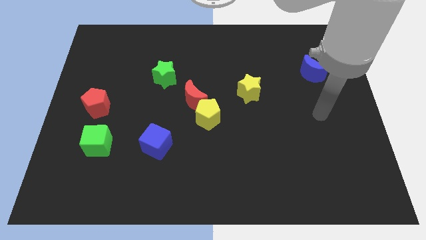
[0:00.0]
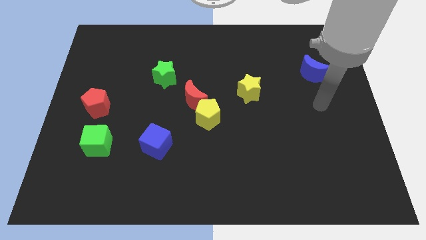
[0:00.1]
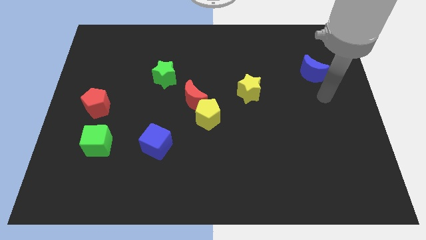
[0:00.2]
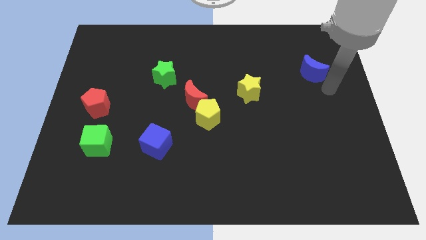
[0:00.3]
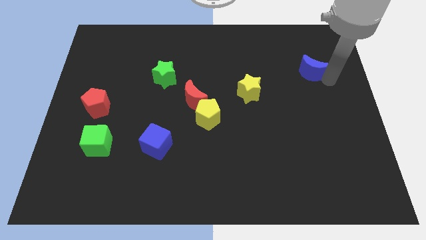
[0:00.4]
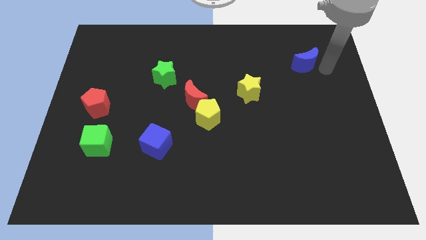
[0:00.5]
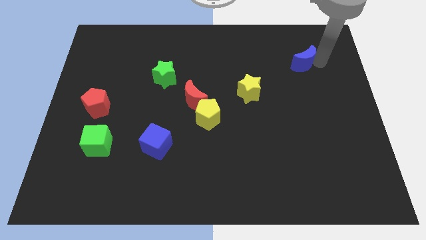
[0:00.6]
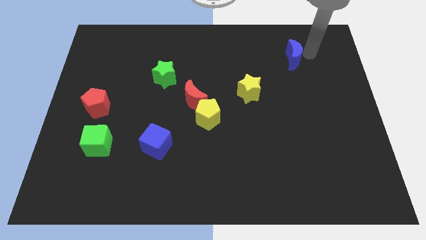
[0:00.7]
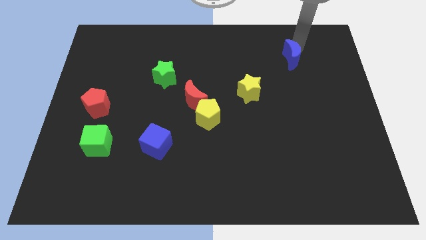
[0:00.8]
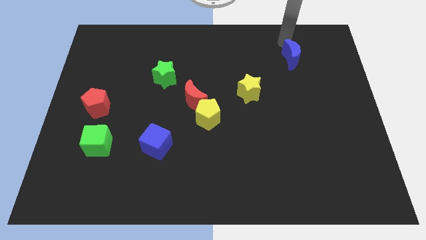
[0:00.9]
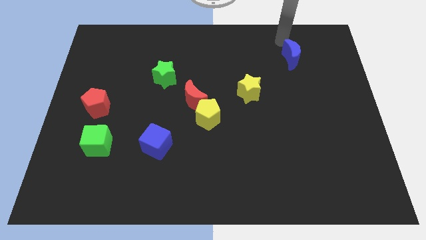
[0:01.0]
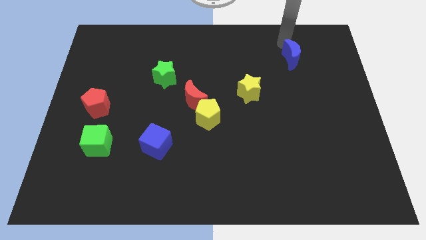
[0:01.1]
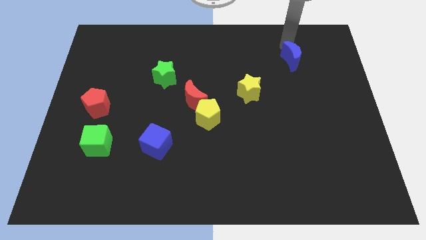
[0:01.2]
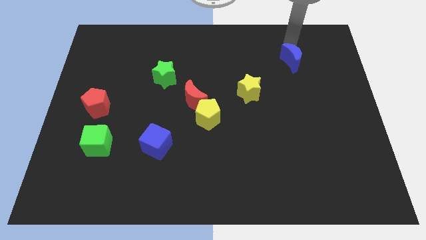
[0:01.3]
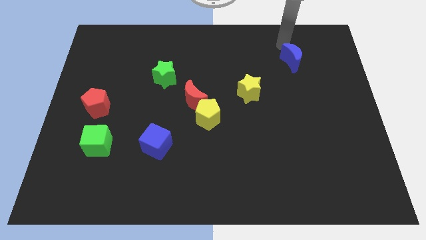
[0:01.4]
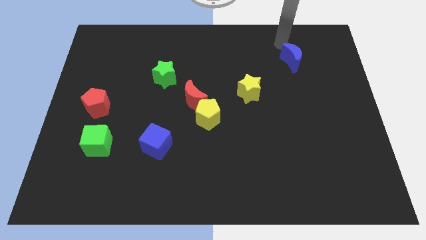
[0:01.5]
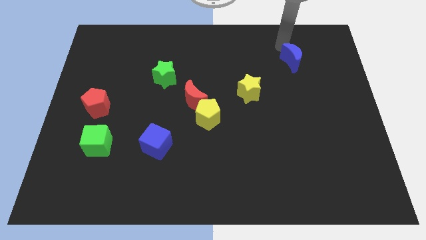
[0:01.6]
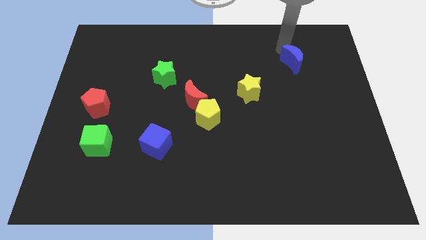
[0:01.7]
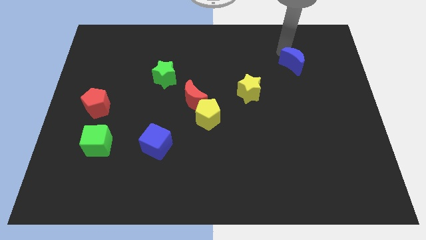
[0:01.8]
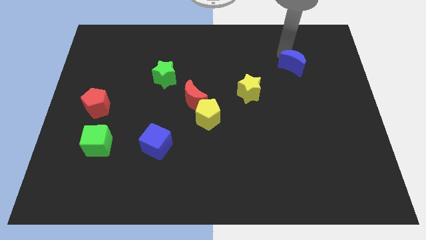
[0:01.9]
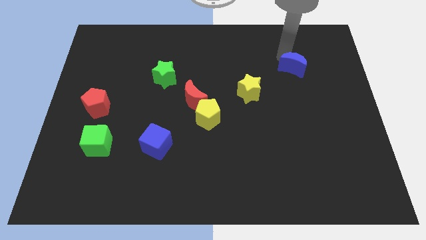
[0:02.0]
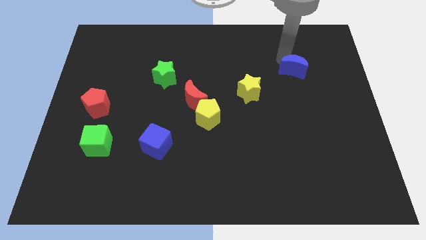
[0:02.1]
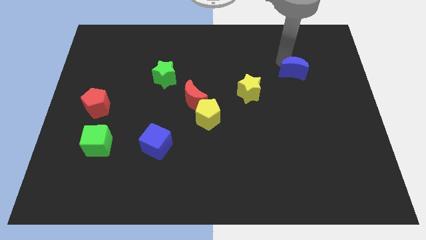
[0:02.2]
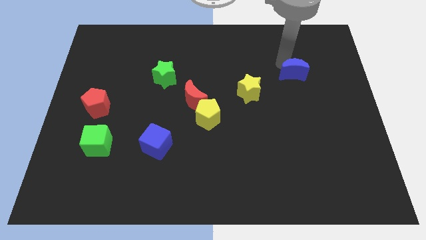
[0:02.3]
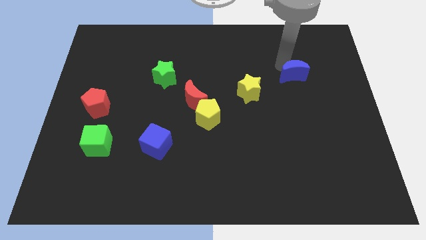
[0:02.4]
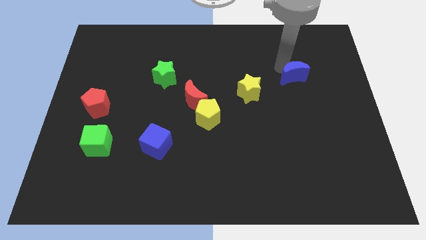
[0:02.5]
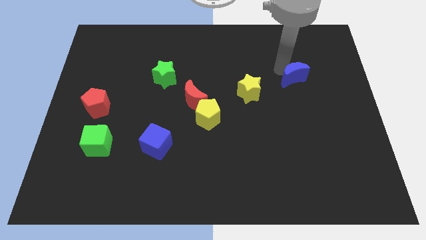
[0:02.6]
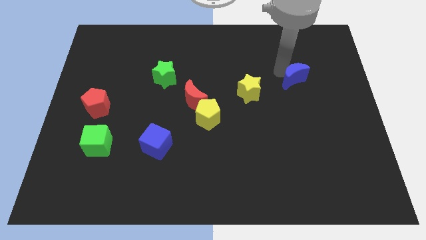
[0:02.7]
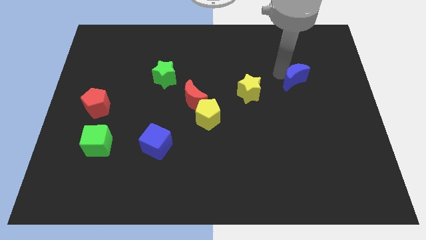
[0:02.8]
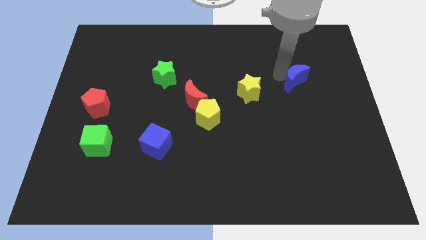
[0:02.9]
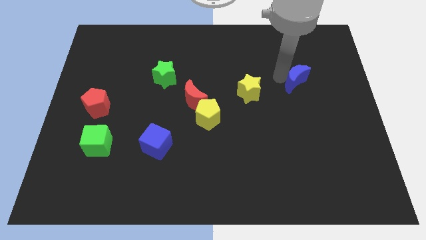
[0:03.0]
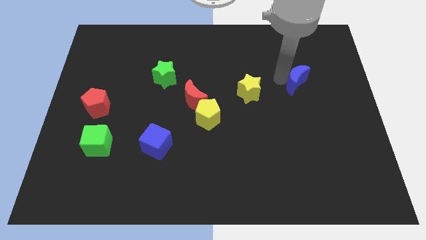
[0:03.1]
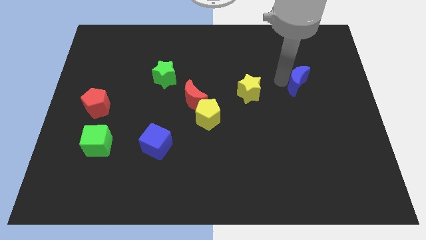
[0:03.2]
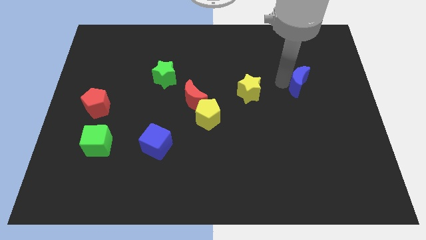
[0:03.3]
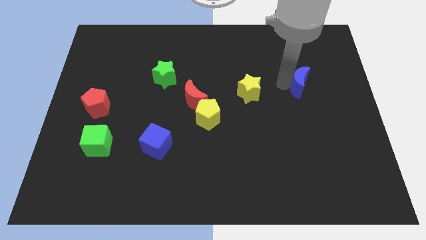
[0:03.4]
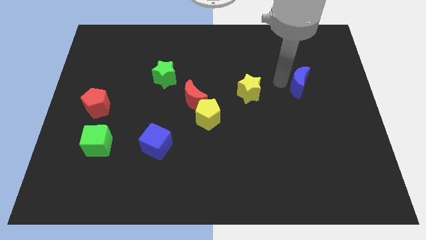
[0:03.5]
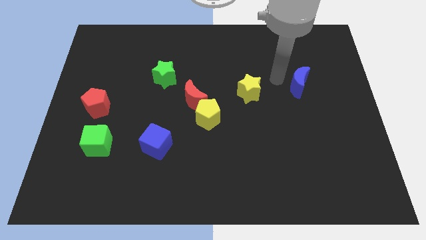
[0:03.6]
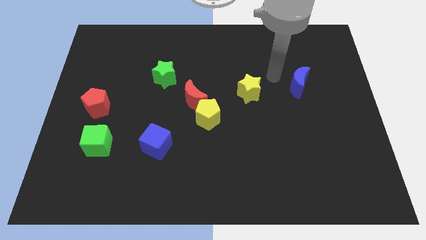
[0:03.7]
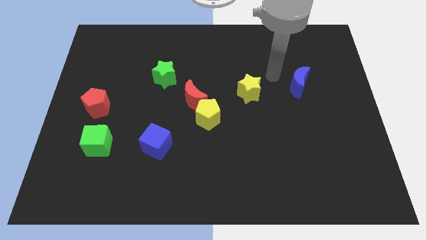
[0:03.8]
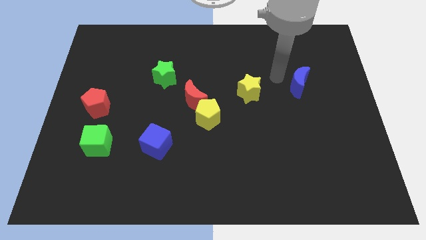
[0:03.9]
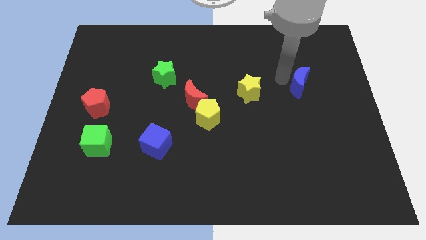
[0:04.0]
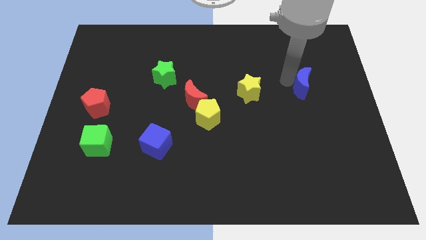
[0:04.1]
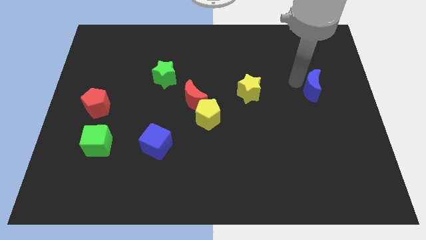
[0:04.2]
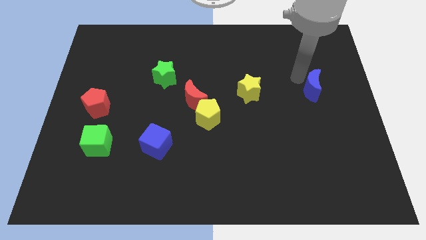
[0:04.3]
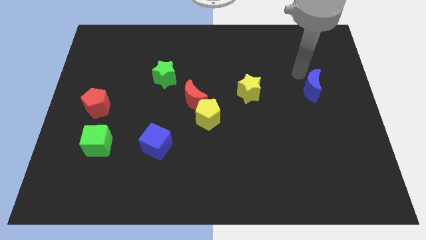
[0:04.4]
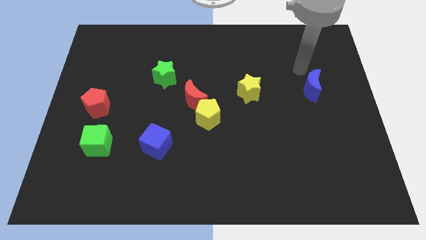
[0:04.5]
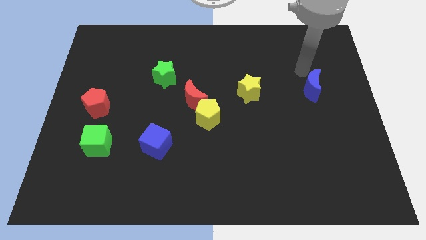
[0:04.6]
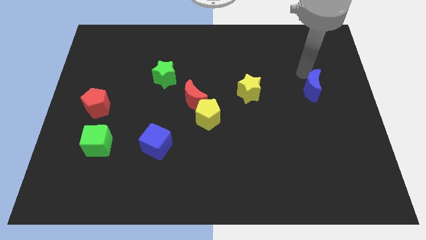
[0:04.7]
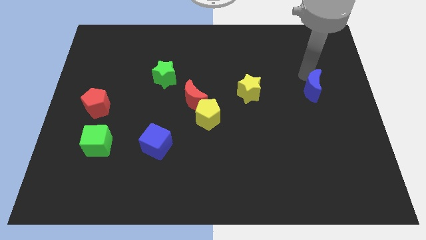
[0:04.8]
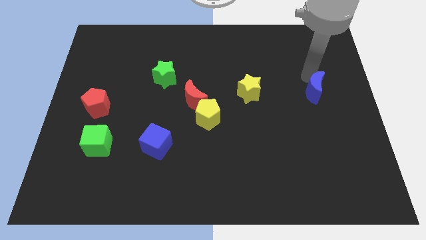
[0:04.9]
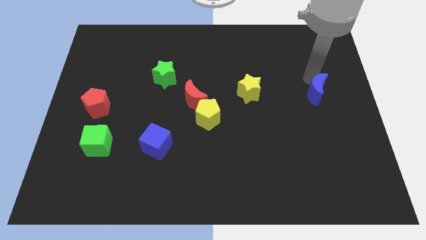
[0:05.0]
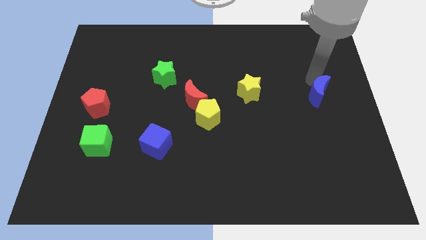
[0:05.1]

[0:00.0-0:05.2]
move the blue moon downwards a little

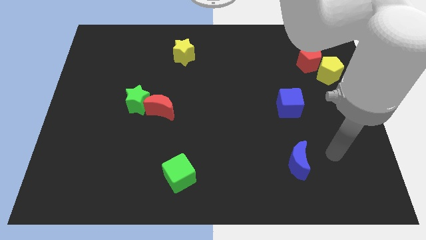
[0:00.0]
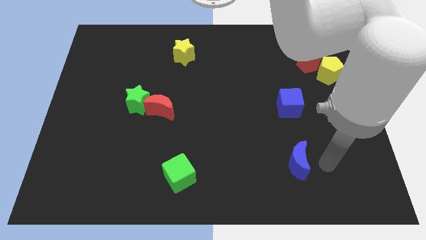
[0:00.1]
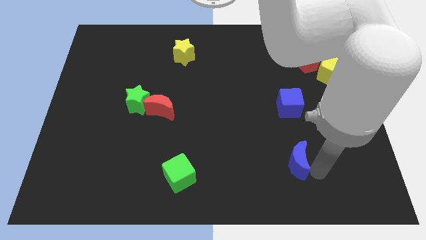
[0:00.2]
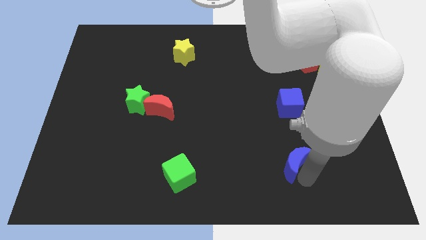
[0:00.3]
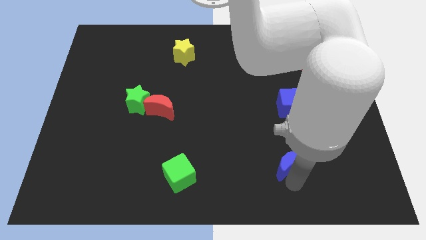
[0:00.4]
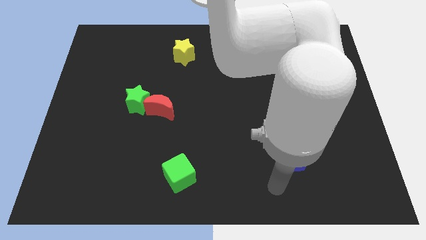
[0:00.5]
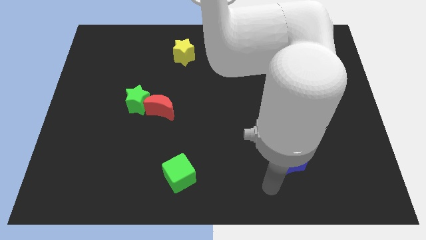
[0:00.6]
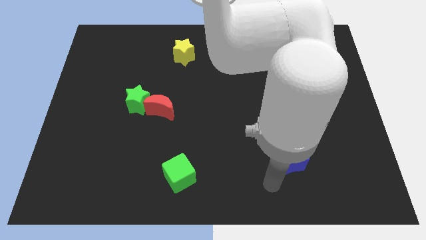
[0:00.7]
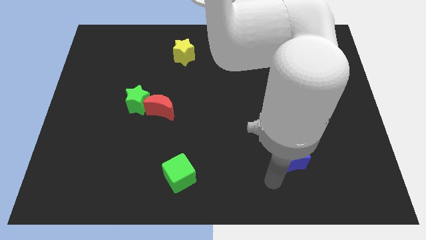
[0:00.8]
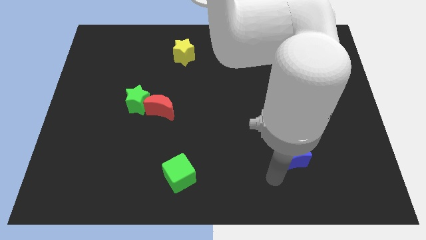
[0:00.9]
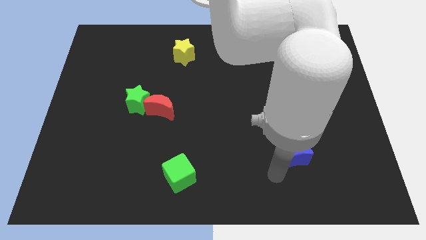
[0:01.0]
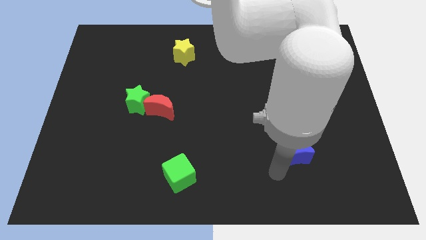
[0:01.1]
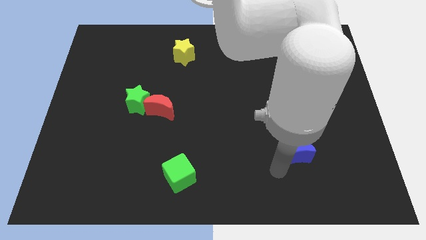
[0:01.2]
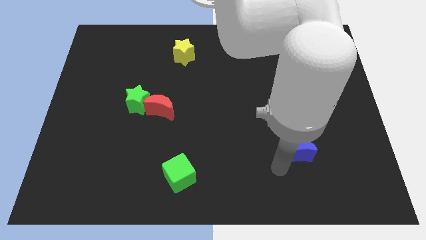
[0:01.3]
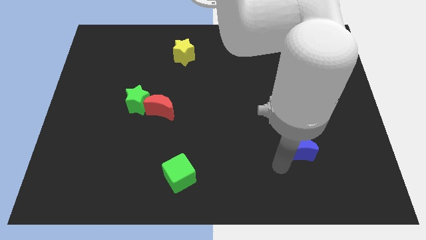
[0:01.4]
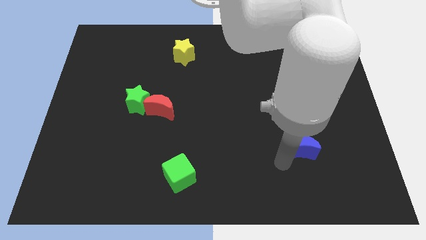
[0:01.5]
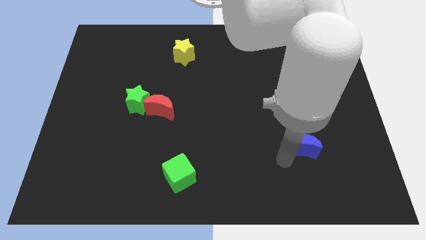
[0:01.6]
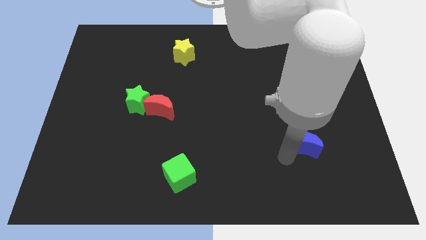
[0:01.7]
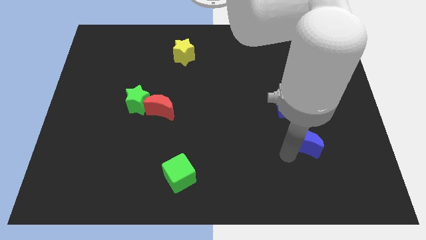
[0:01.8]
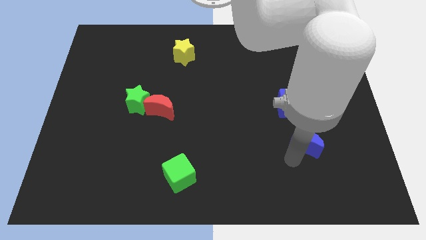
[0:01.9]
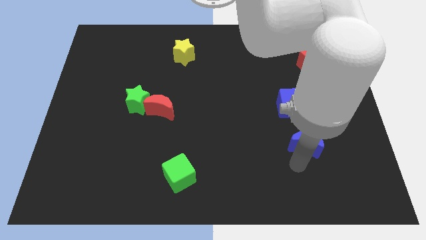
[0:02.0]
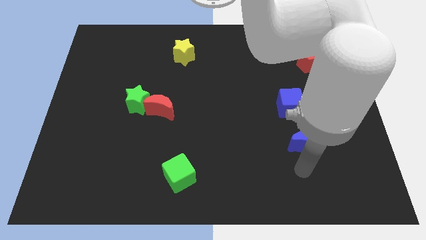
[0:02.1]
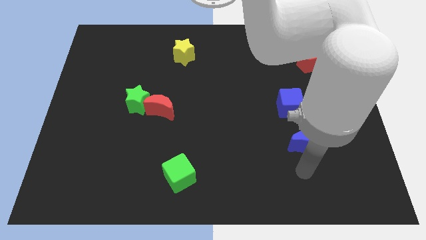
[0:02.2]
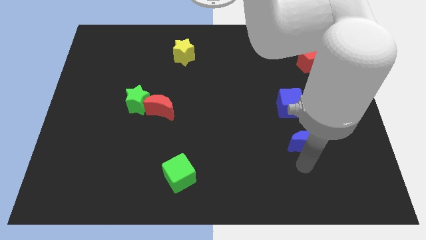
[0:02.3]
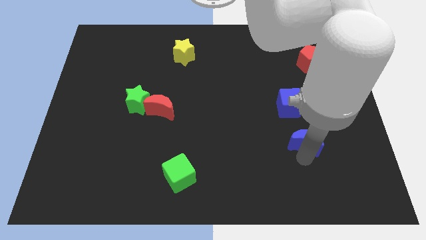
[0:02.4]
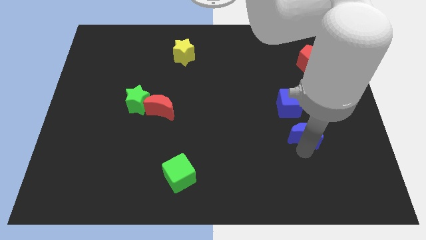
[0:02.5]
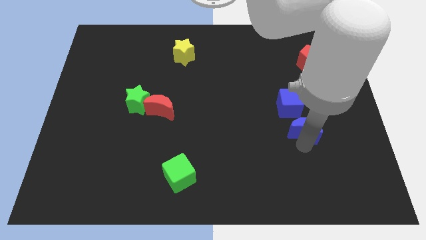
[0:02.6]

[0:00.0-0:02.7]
push the blue moon a little upwards
